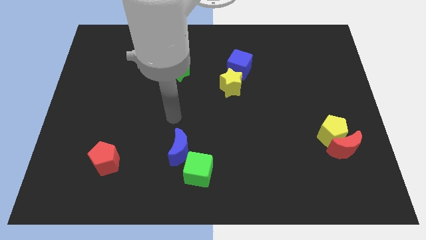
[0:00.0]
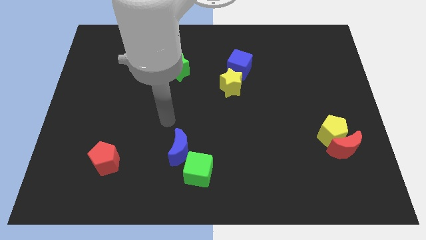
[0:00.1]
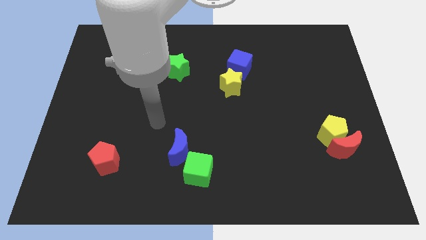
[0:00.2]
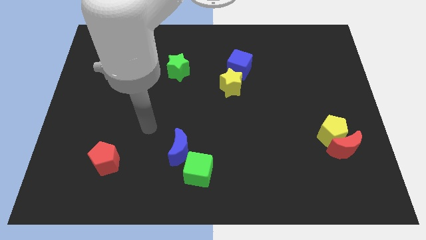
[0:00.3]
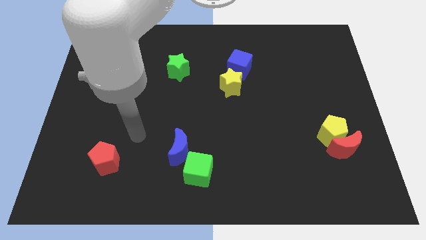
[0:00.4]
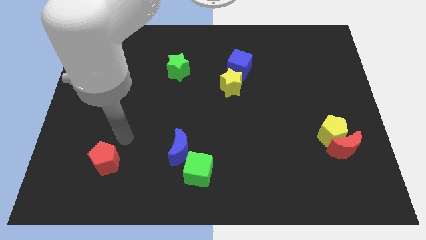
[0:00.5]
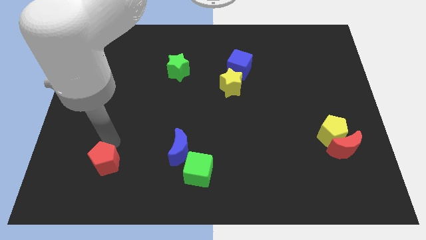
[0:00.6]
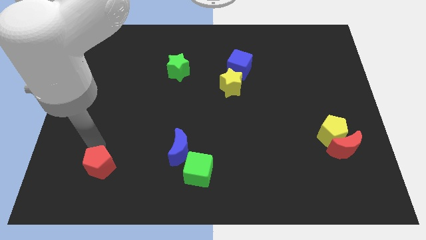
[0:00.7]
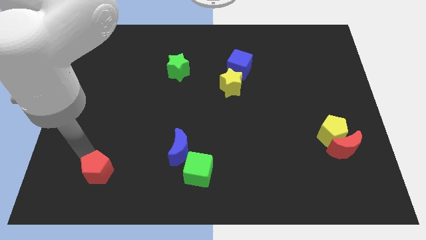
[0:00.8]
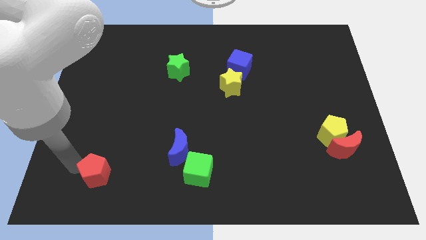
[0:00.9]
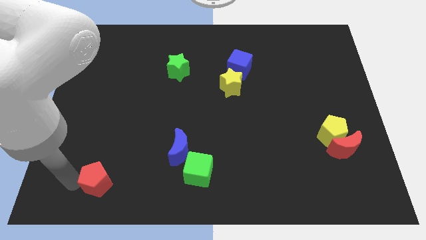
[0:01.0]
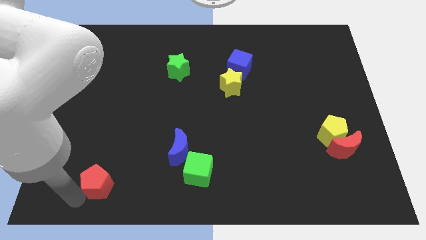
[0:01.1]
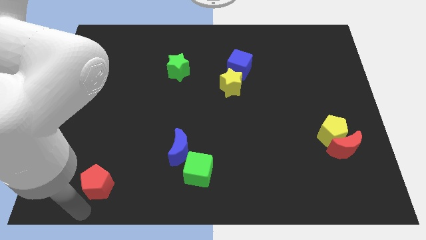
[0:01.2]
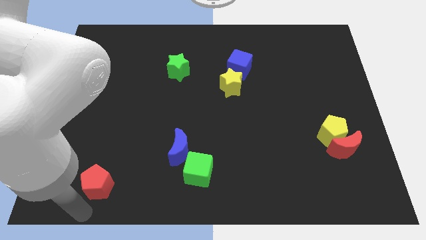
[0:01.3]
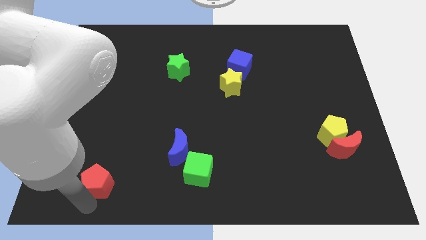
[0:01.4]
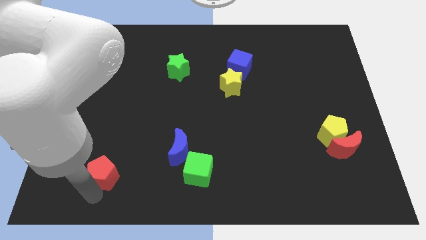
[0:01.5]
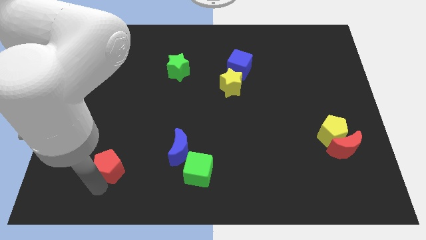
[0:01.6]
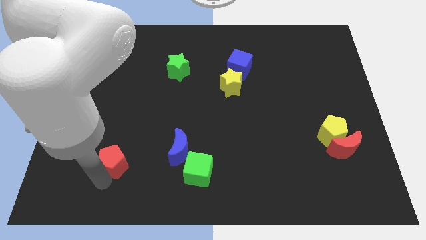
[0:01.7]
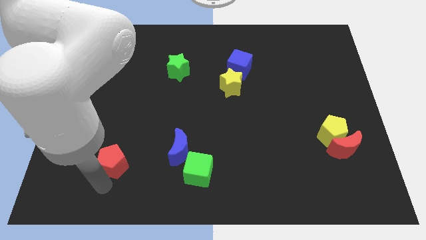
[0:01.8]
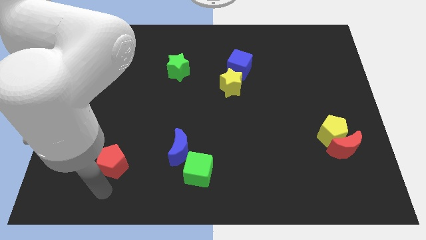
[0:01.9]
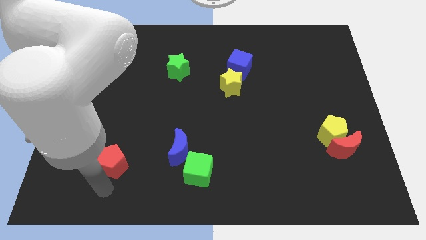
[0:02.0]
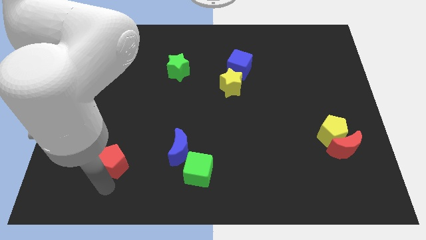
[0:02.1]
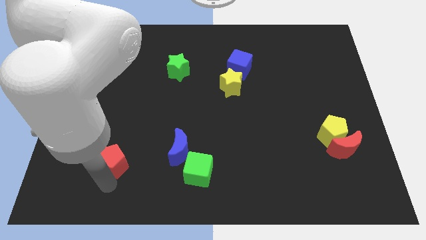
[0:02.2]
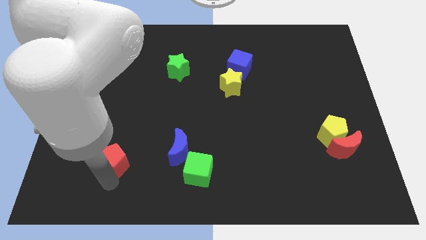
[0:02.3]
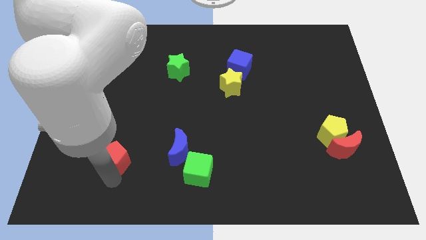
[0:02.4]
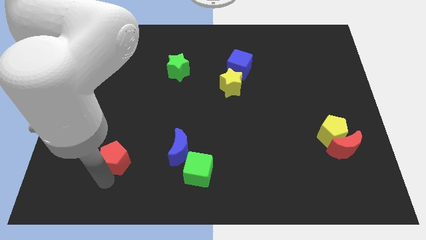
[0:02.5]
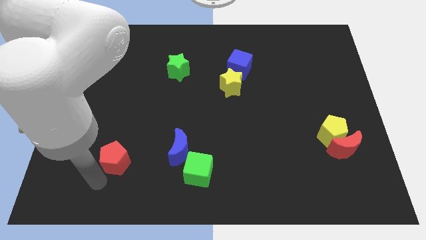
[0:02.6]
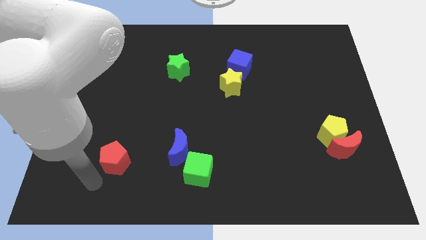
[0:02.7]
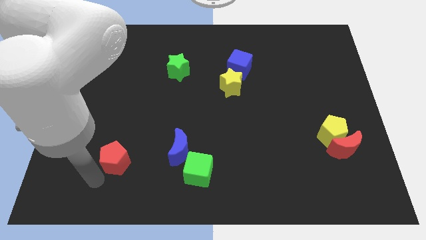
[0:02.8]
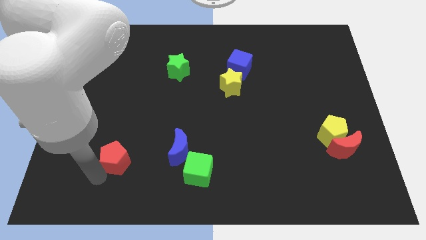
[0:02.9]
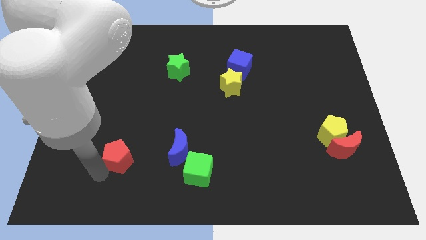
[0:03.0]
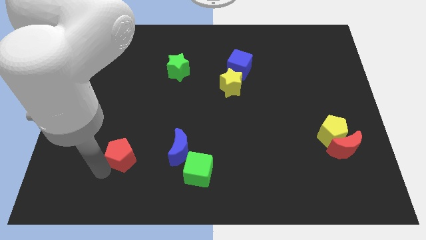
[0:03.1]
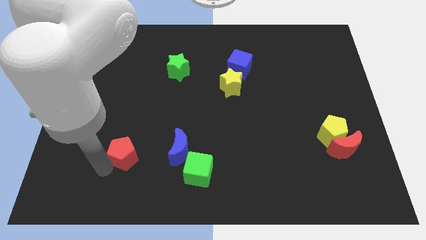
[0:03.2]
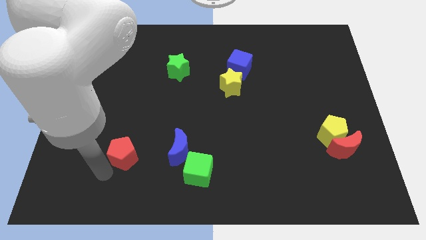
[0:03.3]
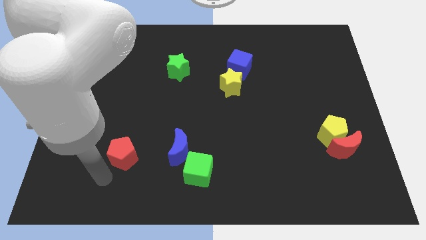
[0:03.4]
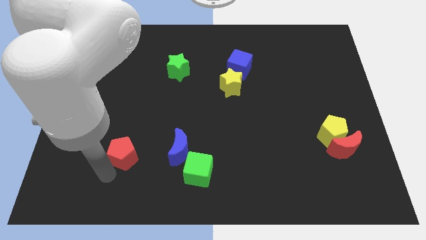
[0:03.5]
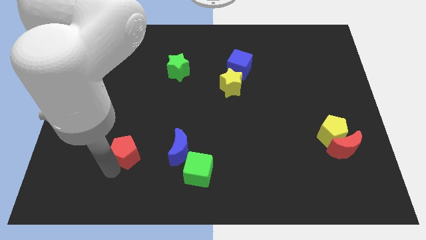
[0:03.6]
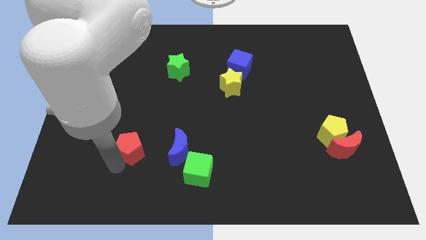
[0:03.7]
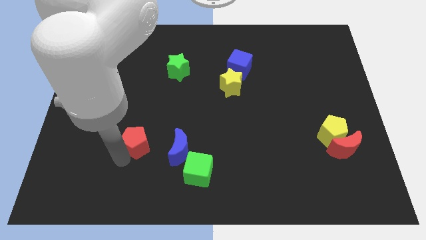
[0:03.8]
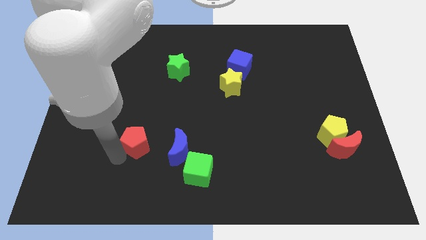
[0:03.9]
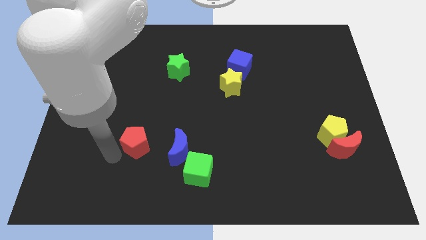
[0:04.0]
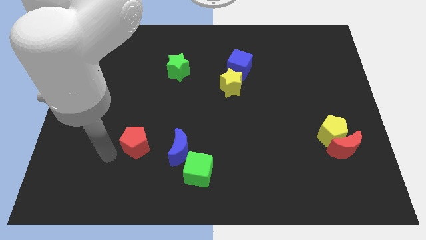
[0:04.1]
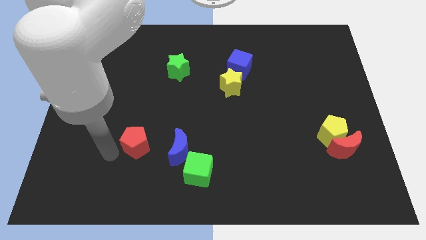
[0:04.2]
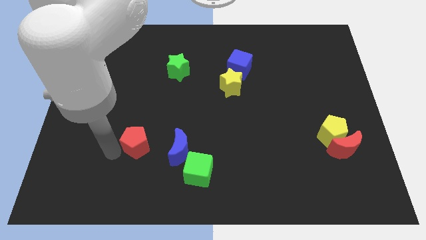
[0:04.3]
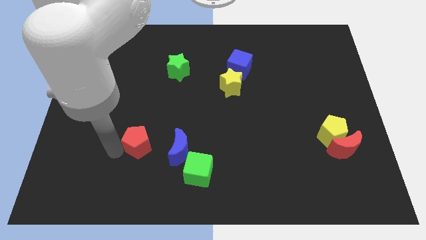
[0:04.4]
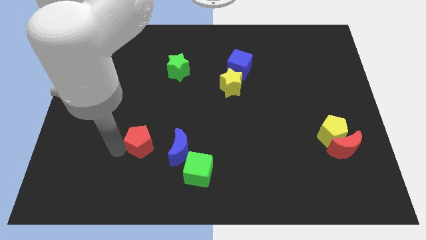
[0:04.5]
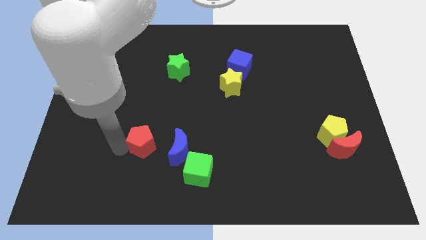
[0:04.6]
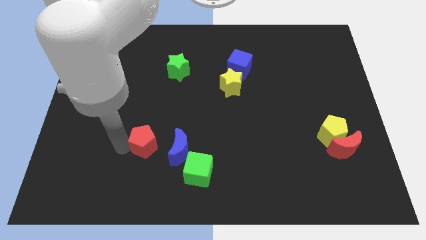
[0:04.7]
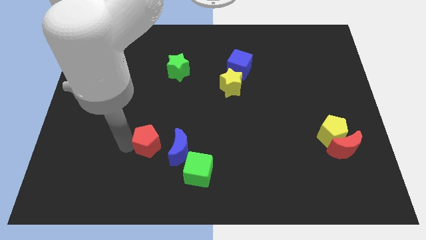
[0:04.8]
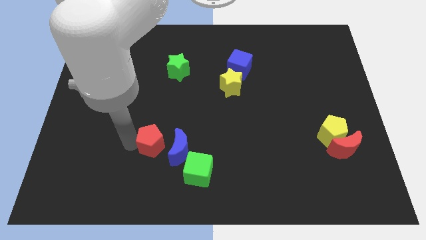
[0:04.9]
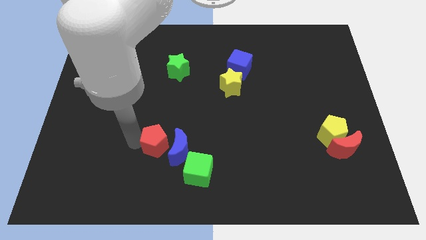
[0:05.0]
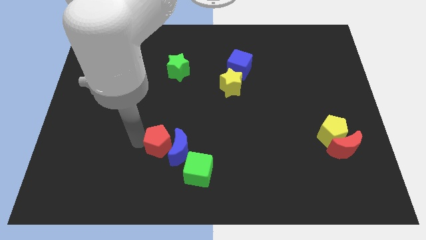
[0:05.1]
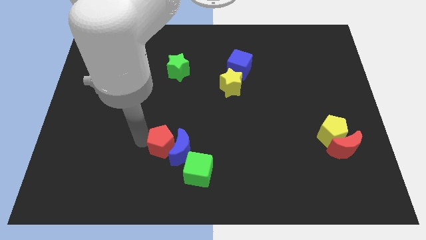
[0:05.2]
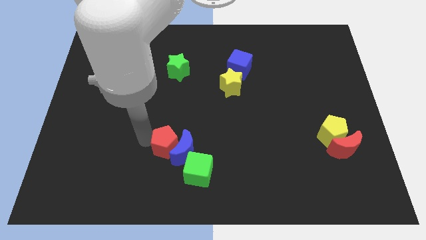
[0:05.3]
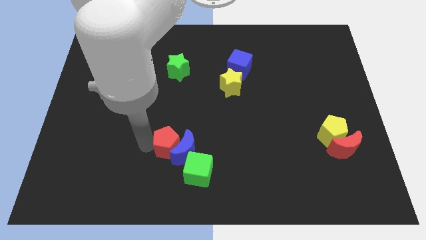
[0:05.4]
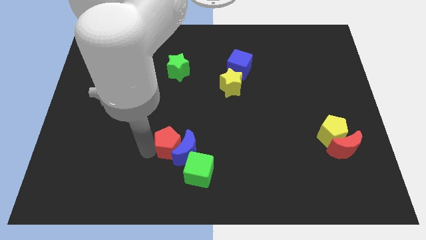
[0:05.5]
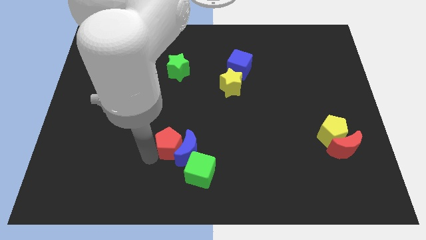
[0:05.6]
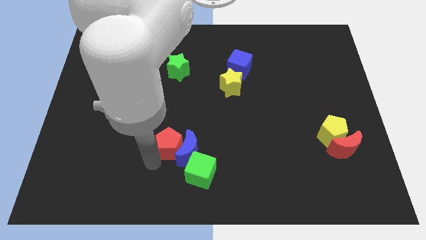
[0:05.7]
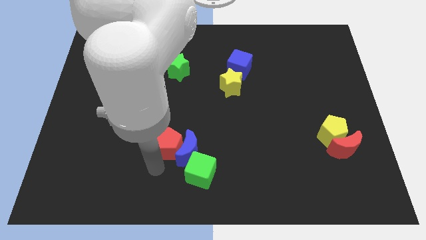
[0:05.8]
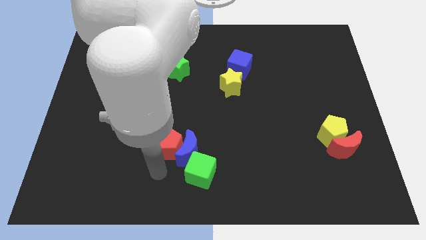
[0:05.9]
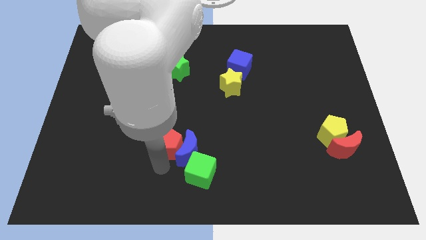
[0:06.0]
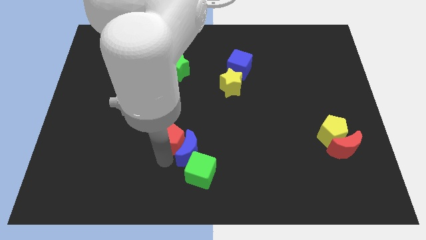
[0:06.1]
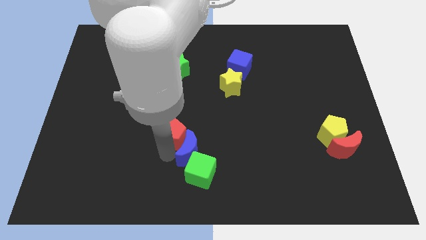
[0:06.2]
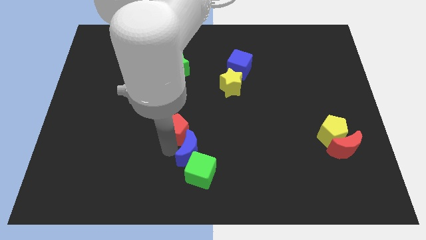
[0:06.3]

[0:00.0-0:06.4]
move the red pentagon to the center

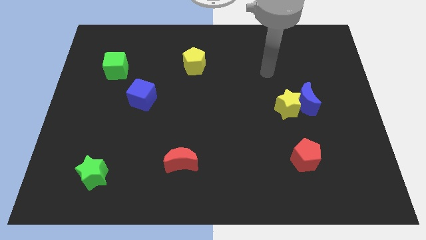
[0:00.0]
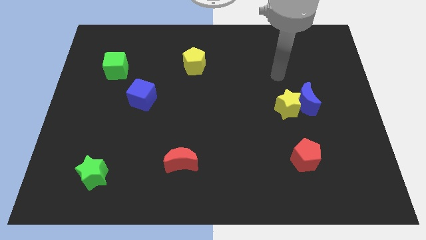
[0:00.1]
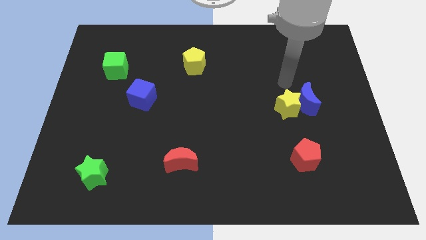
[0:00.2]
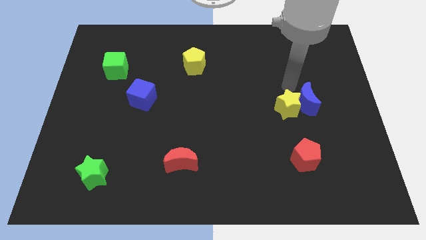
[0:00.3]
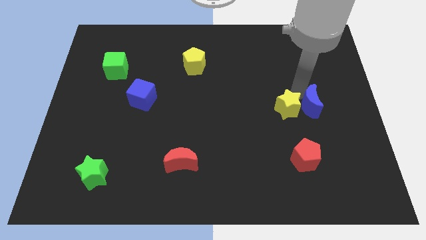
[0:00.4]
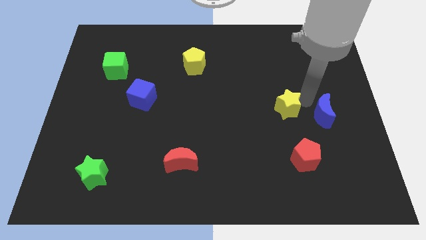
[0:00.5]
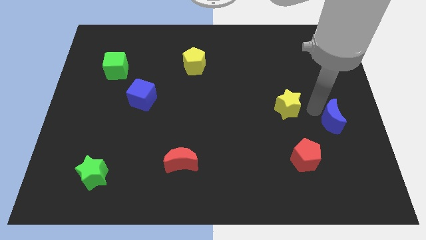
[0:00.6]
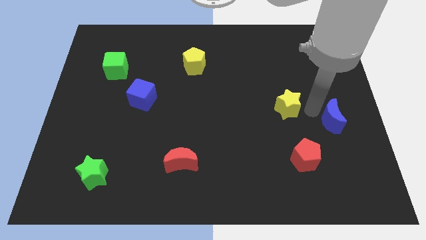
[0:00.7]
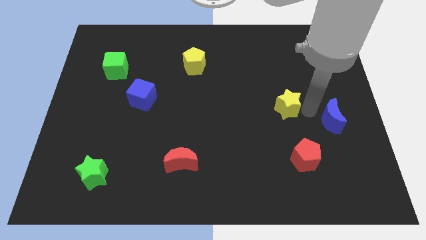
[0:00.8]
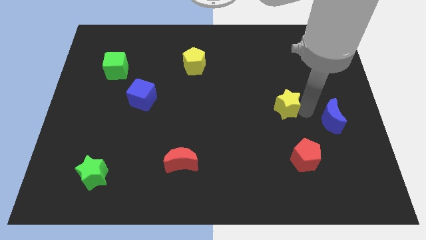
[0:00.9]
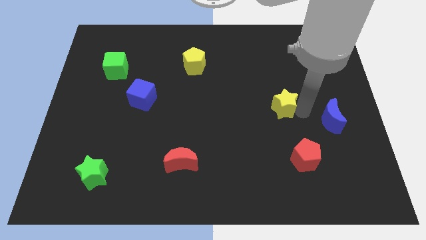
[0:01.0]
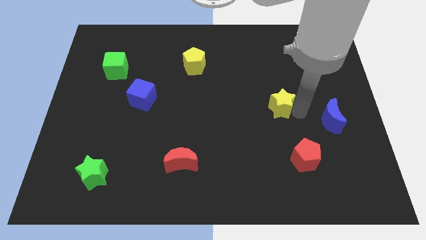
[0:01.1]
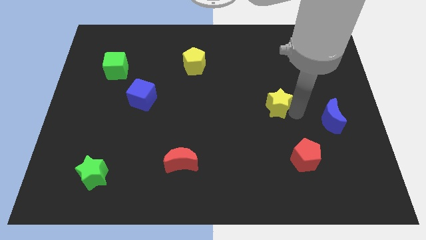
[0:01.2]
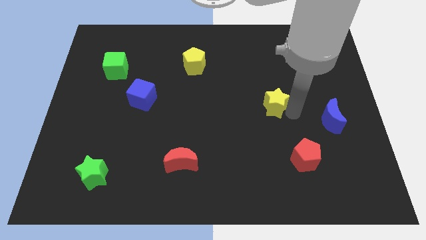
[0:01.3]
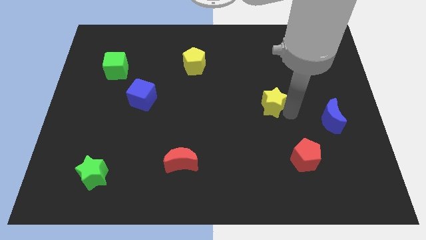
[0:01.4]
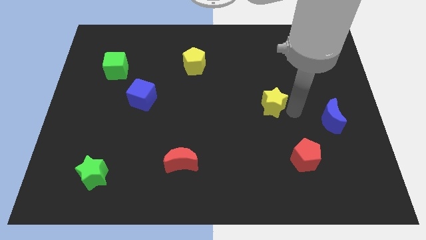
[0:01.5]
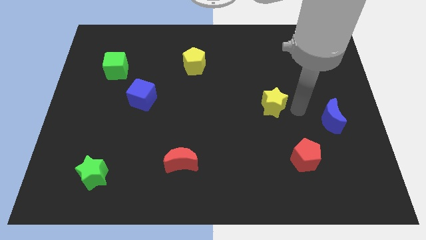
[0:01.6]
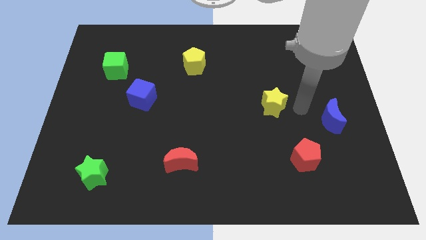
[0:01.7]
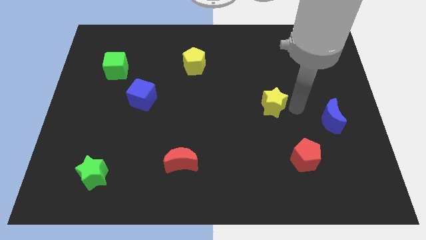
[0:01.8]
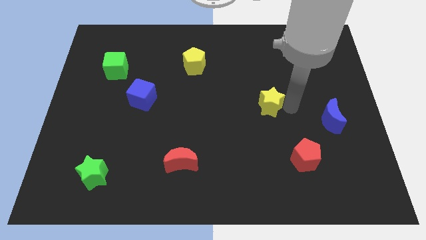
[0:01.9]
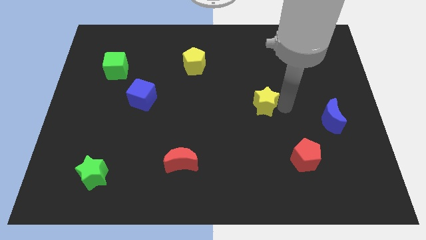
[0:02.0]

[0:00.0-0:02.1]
put the yellow star to the middle of the board
